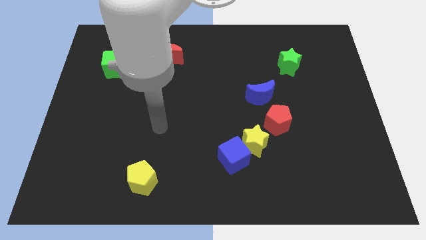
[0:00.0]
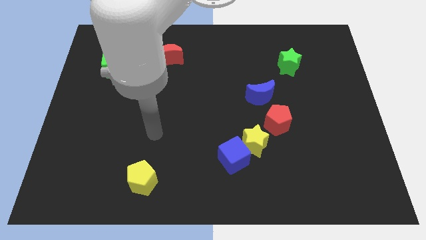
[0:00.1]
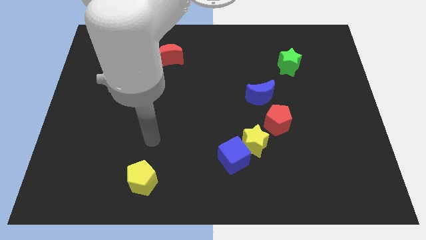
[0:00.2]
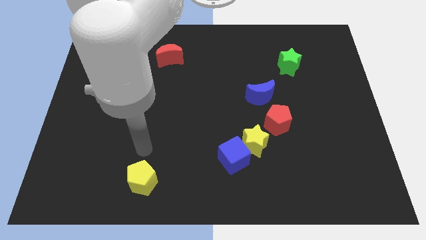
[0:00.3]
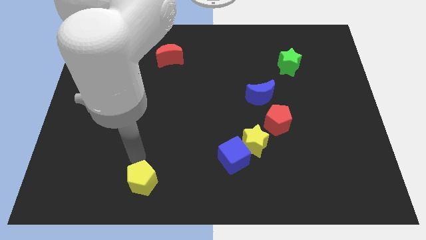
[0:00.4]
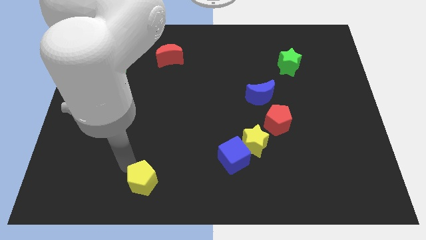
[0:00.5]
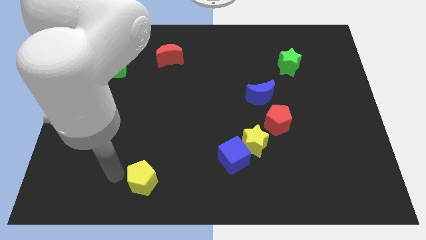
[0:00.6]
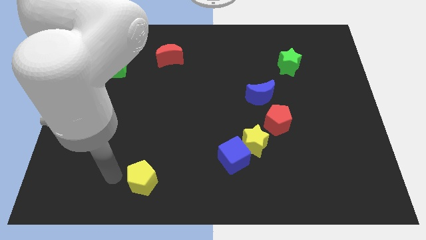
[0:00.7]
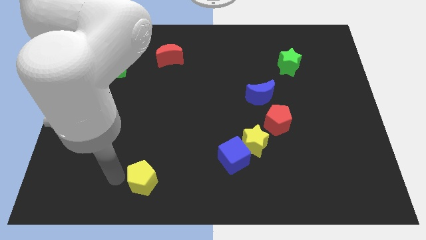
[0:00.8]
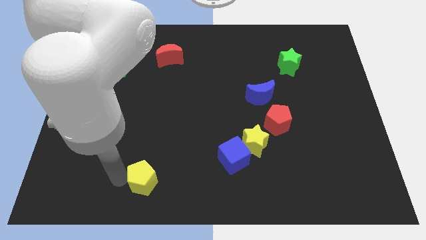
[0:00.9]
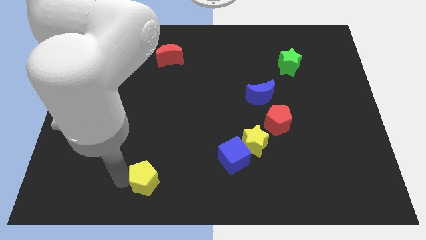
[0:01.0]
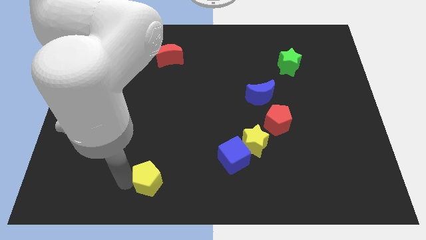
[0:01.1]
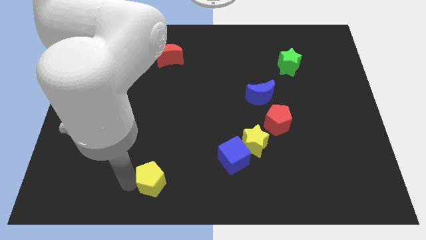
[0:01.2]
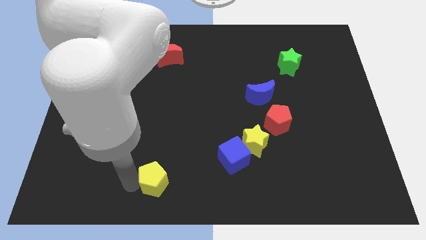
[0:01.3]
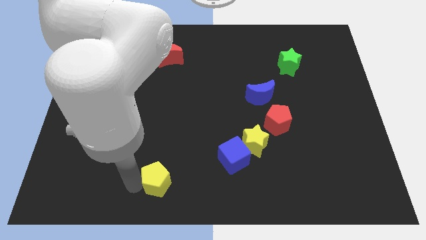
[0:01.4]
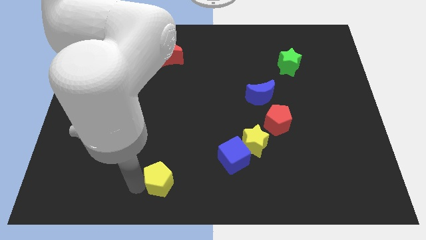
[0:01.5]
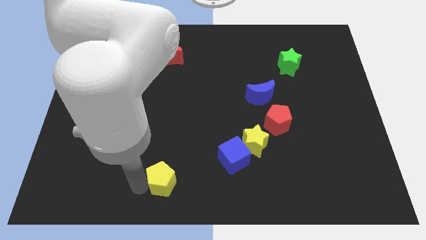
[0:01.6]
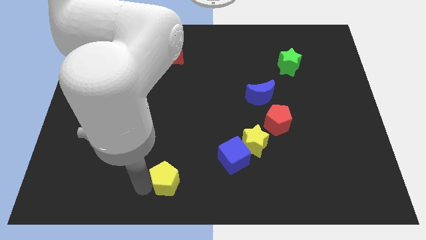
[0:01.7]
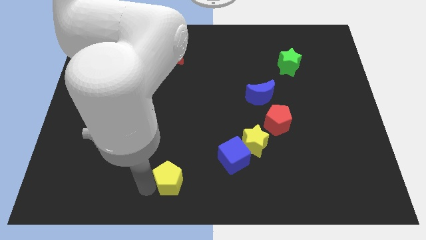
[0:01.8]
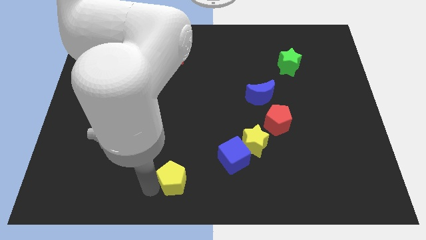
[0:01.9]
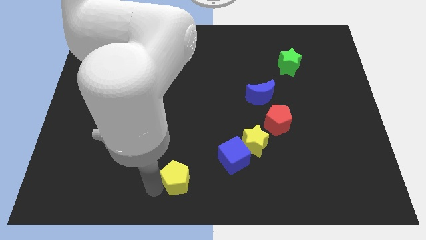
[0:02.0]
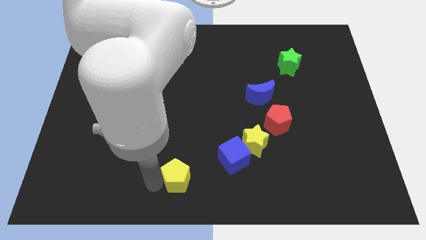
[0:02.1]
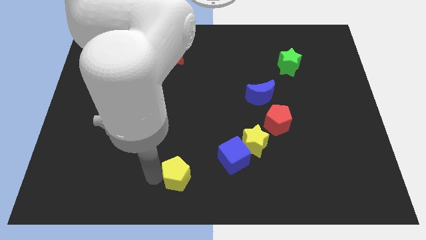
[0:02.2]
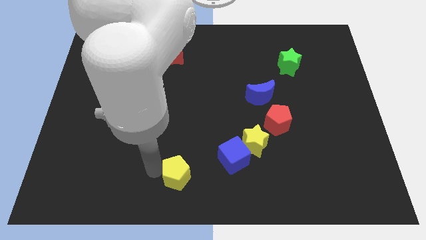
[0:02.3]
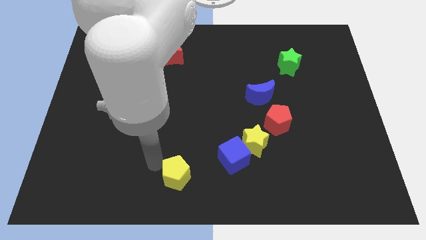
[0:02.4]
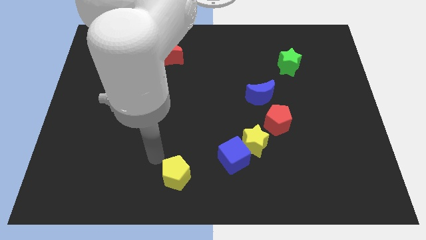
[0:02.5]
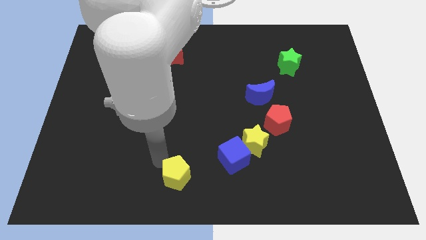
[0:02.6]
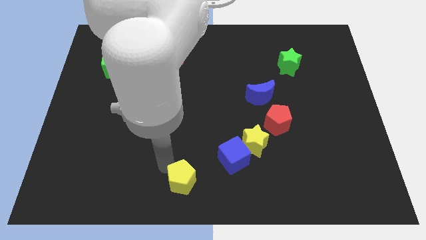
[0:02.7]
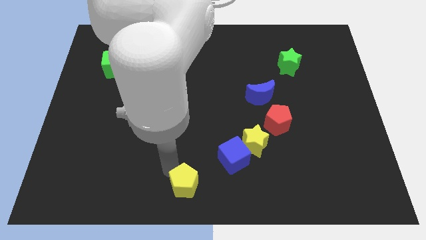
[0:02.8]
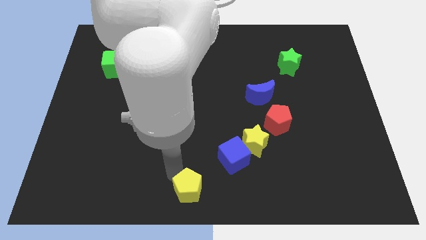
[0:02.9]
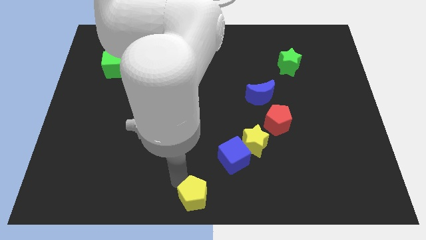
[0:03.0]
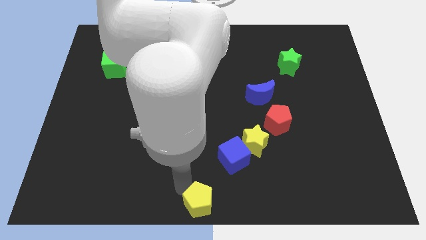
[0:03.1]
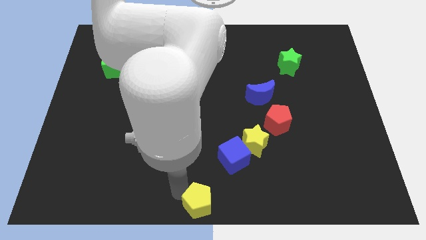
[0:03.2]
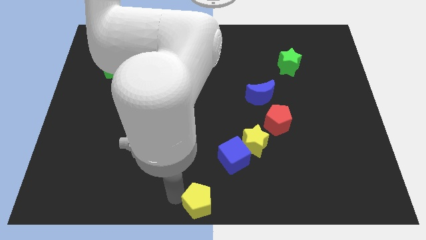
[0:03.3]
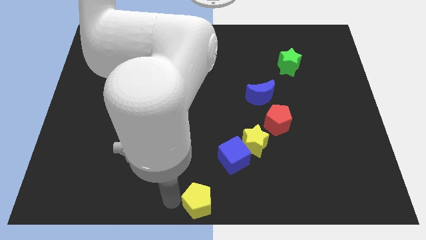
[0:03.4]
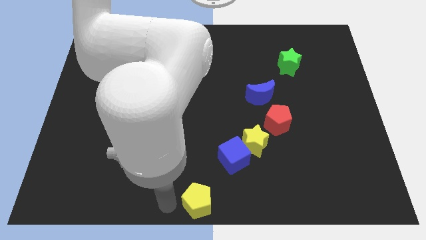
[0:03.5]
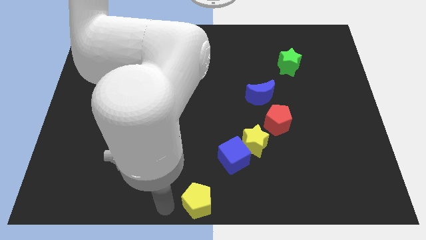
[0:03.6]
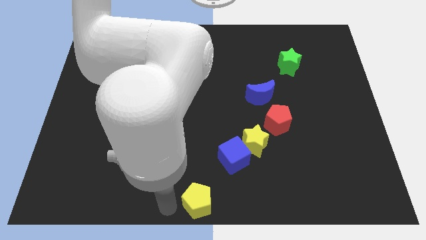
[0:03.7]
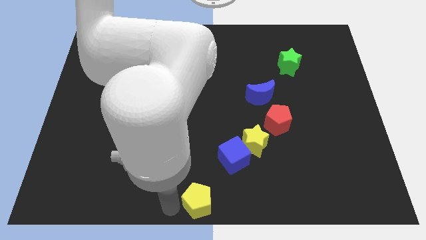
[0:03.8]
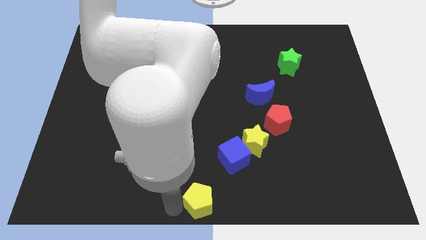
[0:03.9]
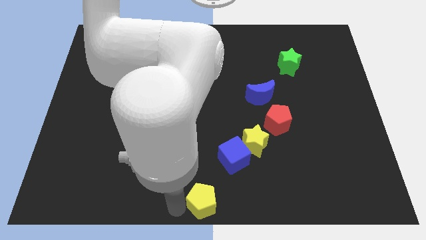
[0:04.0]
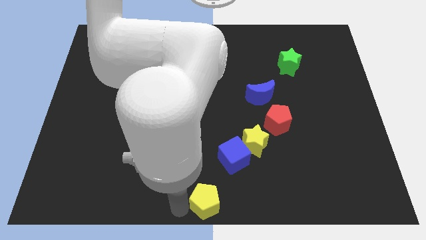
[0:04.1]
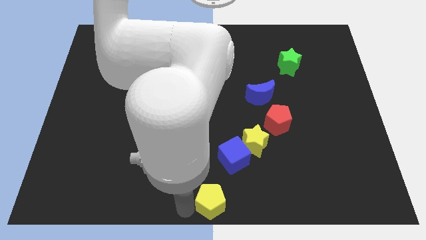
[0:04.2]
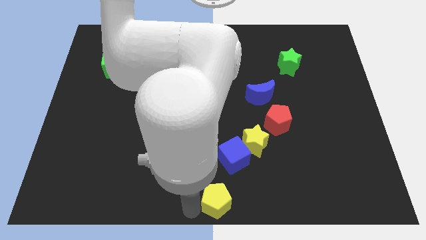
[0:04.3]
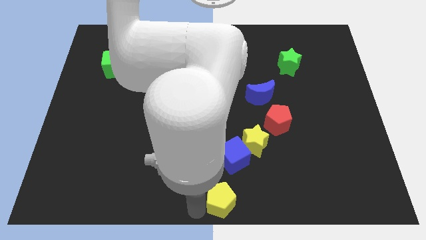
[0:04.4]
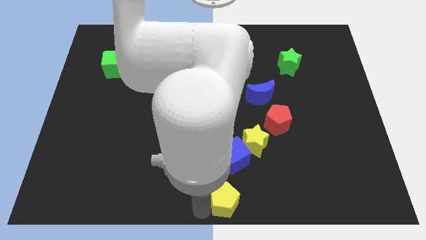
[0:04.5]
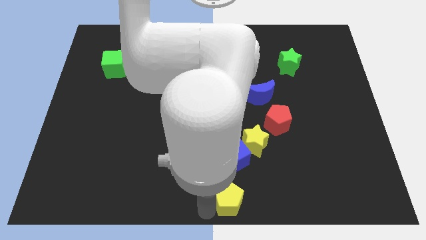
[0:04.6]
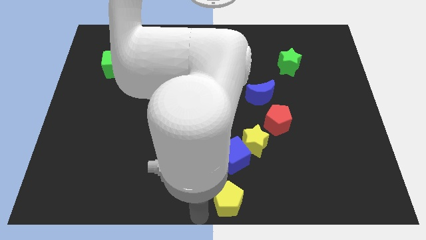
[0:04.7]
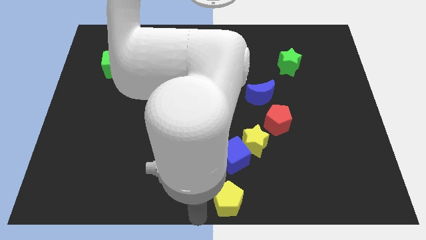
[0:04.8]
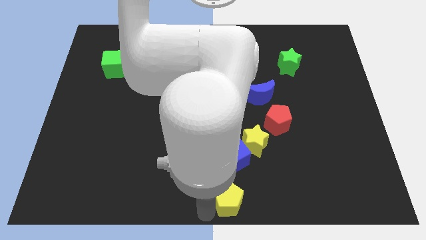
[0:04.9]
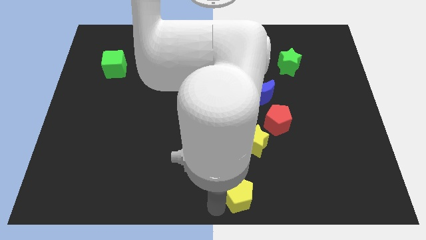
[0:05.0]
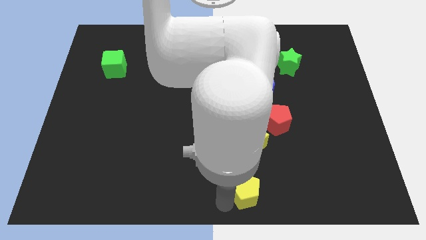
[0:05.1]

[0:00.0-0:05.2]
move the yellow pentagon to the right

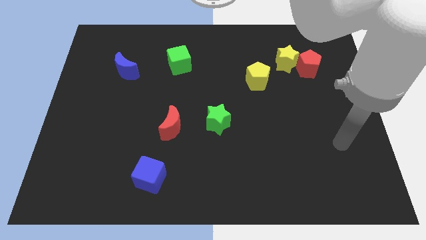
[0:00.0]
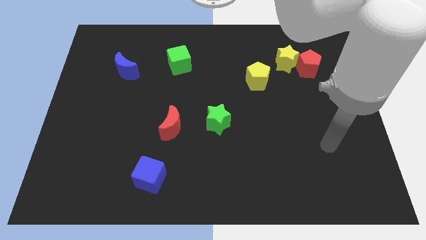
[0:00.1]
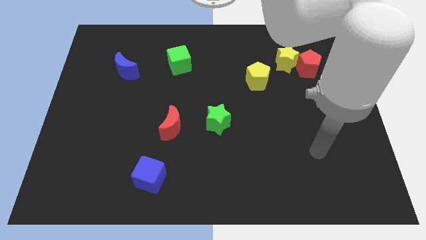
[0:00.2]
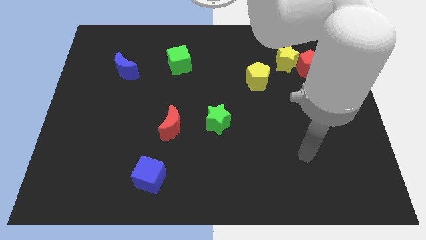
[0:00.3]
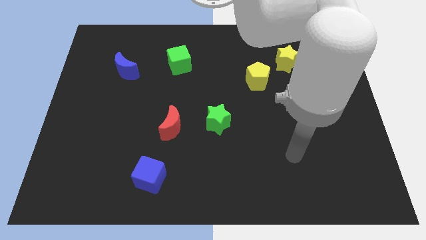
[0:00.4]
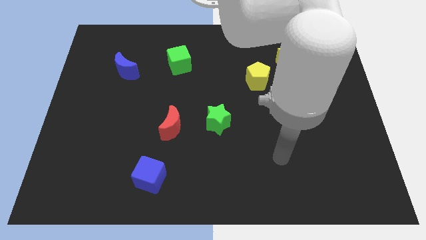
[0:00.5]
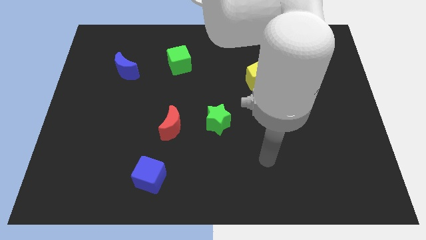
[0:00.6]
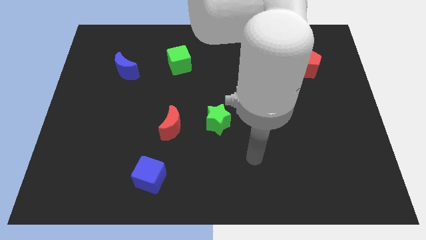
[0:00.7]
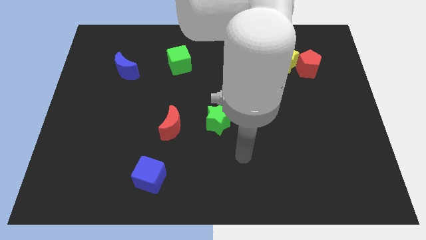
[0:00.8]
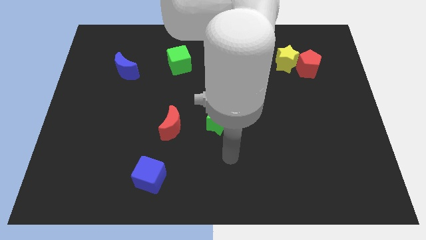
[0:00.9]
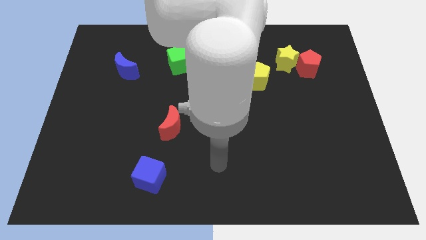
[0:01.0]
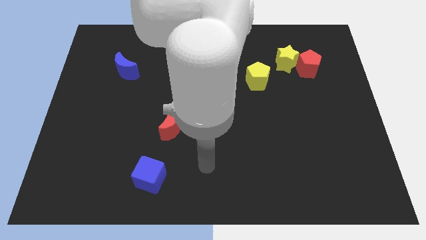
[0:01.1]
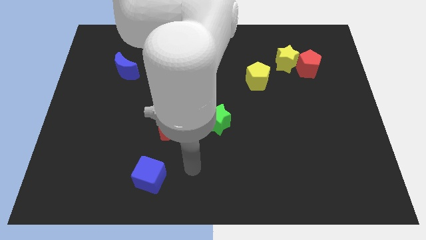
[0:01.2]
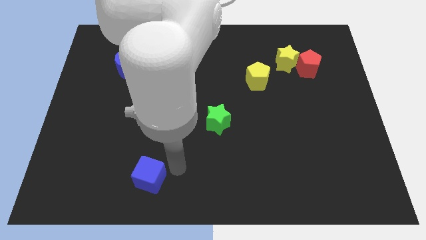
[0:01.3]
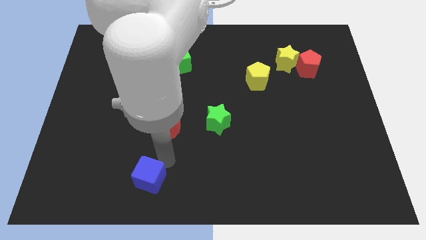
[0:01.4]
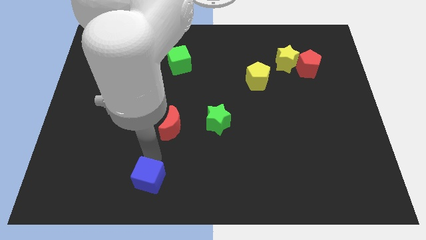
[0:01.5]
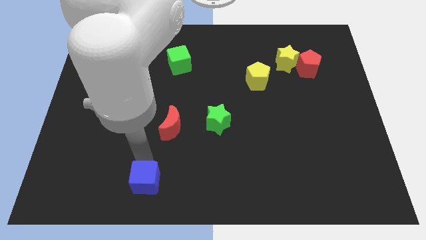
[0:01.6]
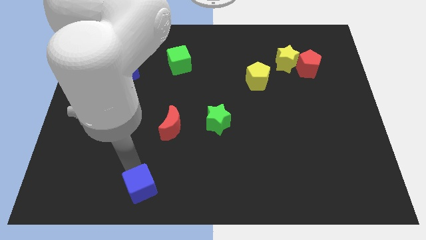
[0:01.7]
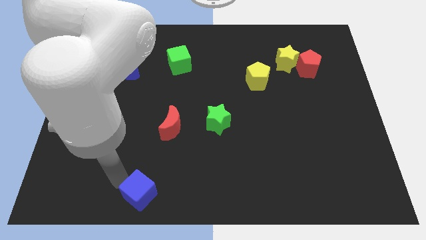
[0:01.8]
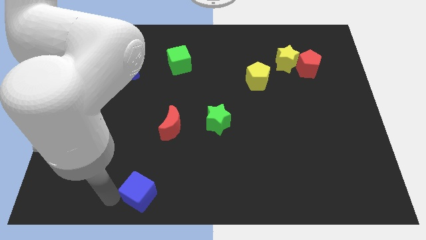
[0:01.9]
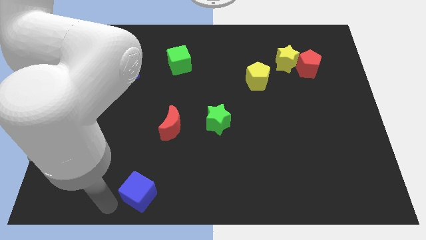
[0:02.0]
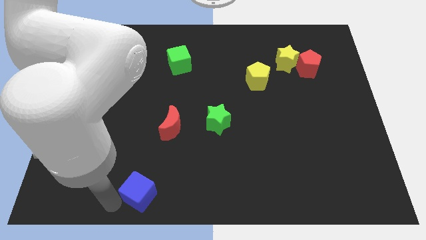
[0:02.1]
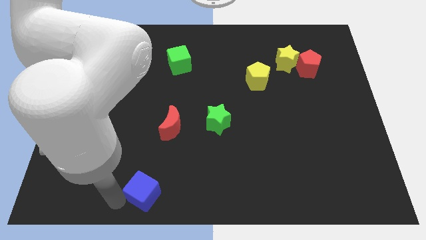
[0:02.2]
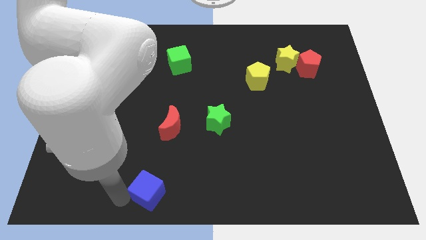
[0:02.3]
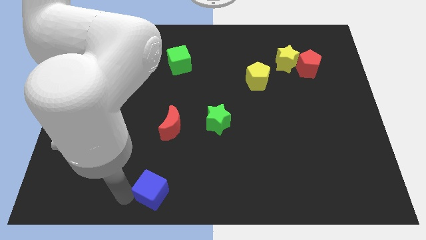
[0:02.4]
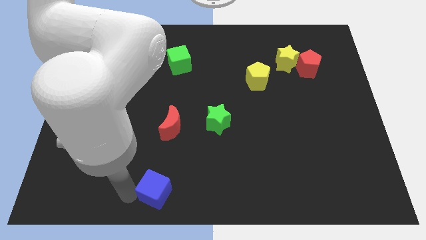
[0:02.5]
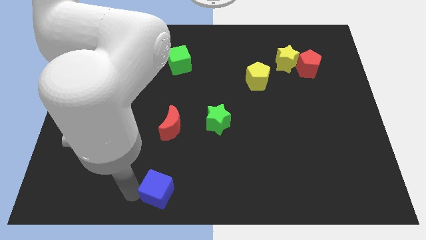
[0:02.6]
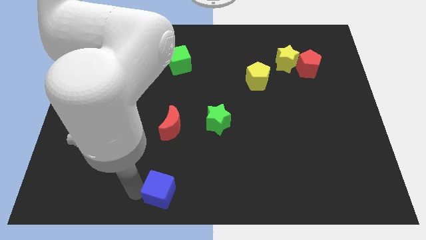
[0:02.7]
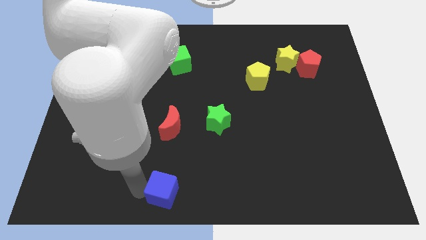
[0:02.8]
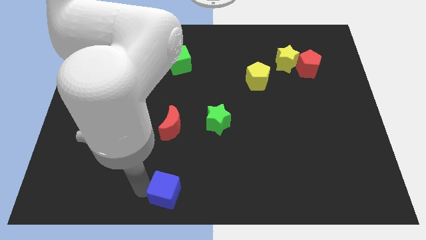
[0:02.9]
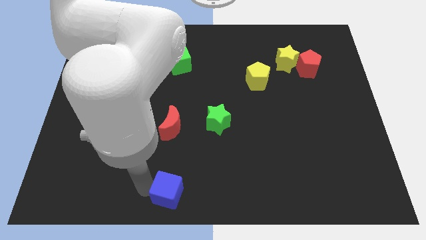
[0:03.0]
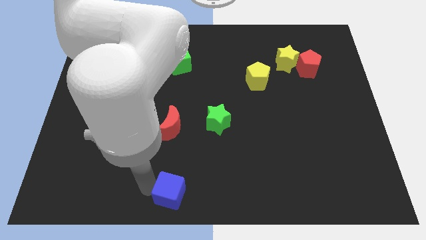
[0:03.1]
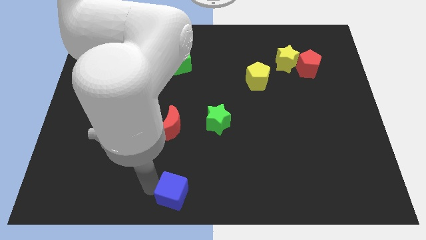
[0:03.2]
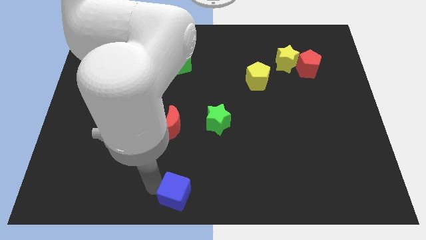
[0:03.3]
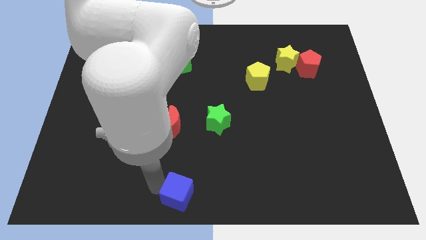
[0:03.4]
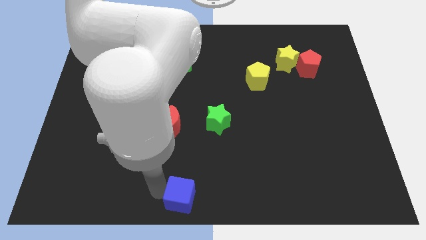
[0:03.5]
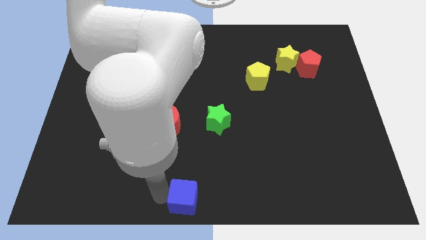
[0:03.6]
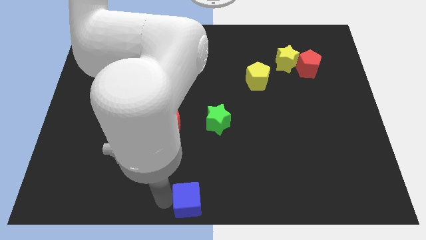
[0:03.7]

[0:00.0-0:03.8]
slightly push the blue cube right
